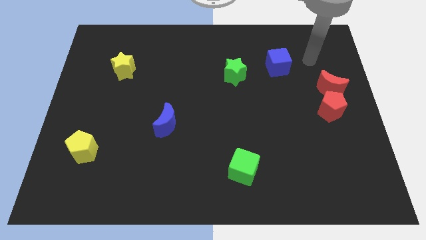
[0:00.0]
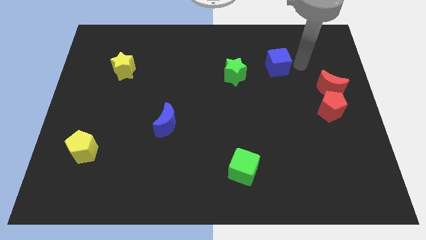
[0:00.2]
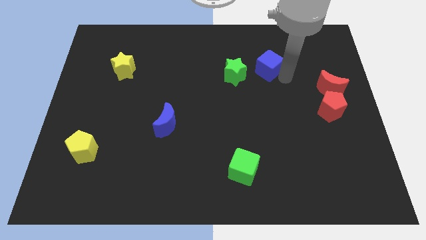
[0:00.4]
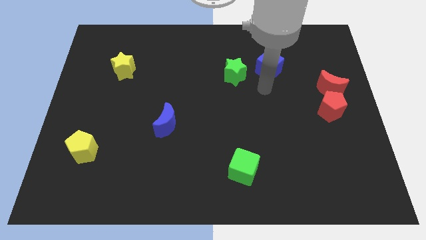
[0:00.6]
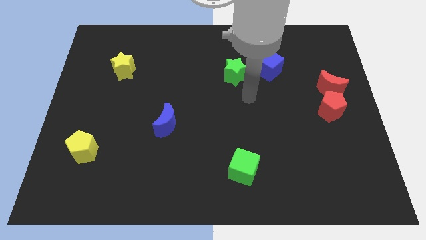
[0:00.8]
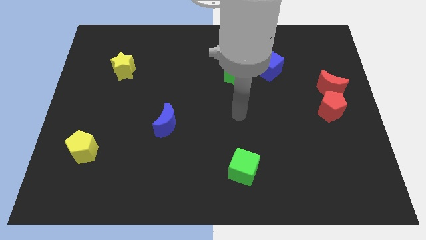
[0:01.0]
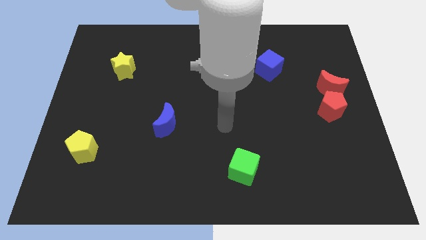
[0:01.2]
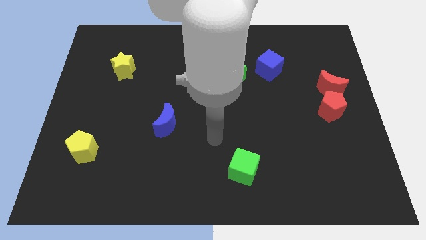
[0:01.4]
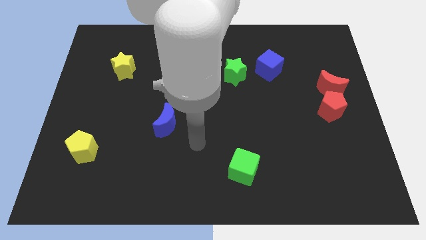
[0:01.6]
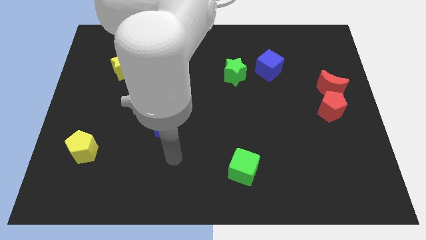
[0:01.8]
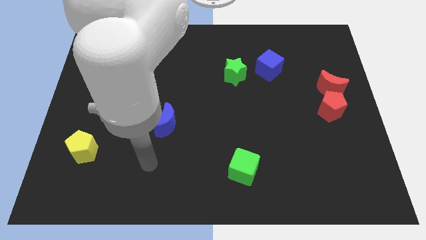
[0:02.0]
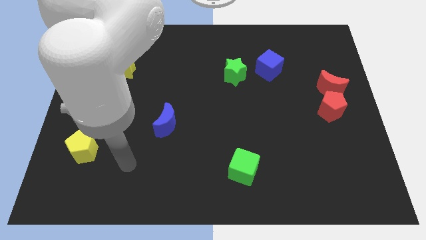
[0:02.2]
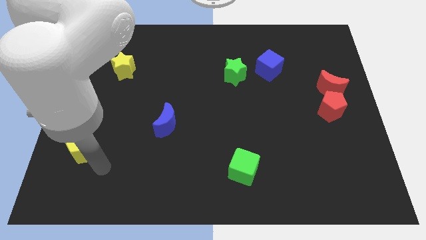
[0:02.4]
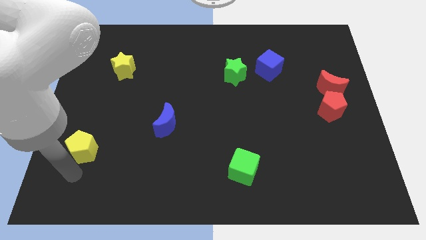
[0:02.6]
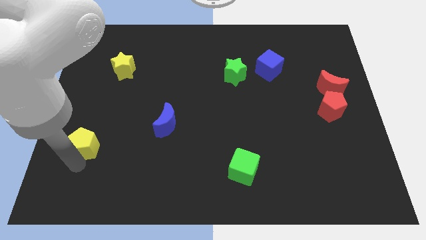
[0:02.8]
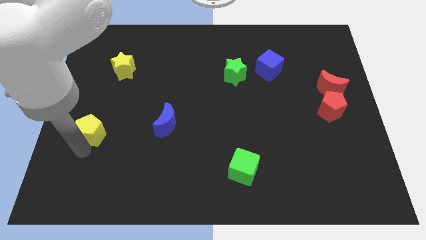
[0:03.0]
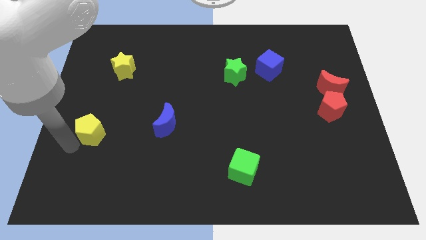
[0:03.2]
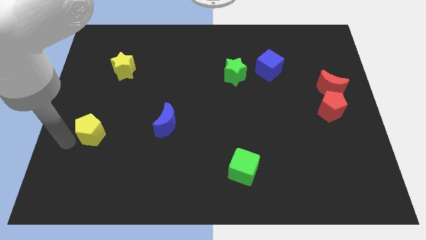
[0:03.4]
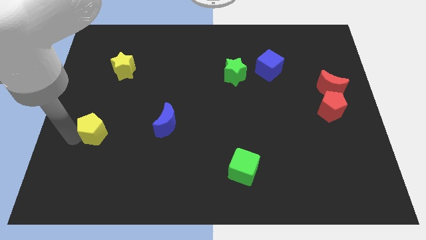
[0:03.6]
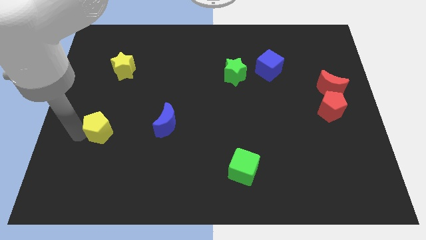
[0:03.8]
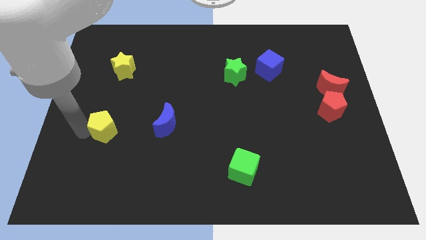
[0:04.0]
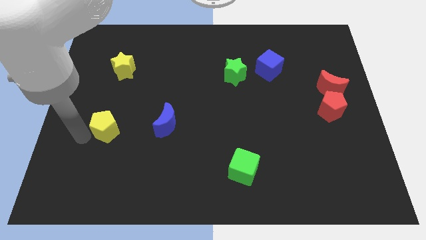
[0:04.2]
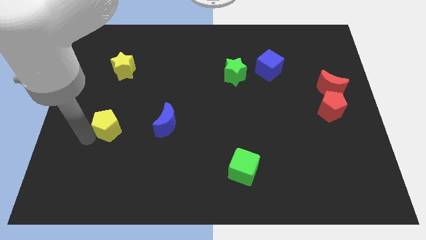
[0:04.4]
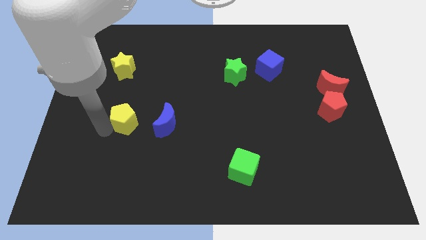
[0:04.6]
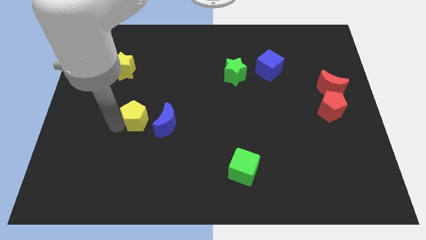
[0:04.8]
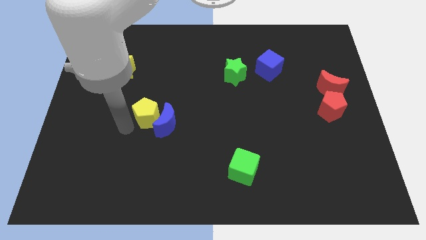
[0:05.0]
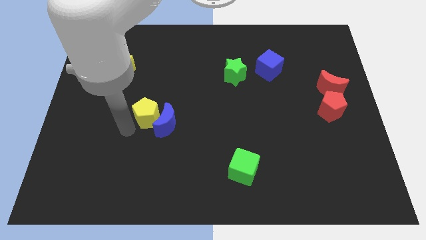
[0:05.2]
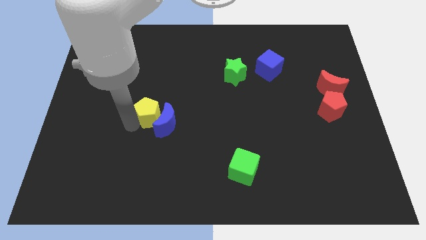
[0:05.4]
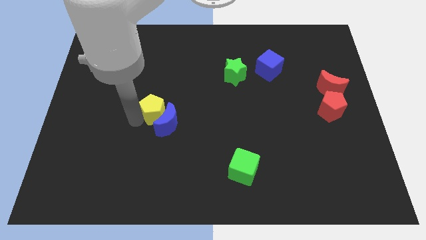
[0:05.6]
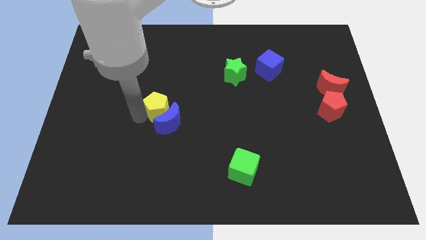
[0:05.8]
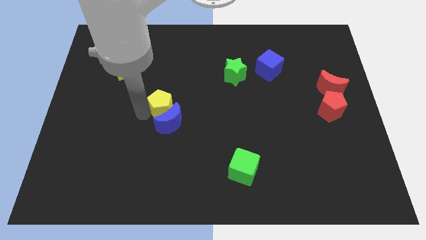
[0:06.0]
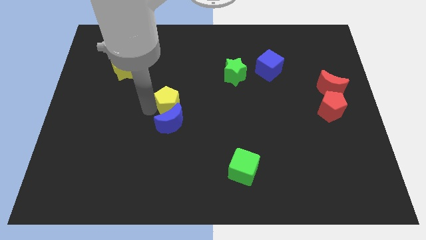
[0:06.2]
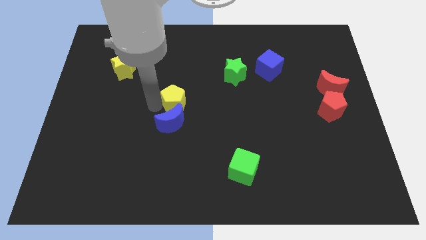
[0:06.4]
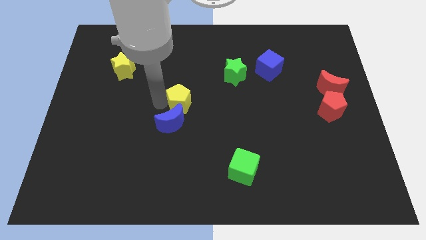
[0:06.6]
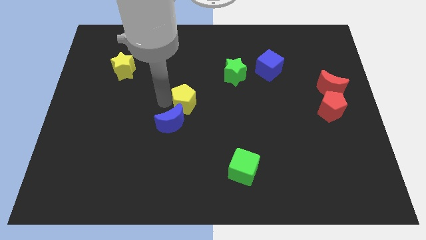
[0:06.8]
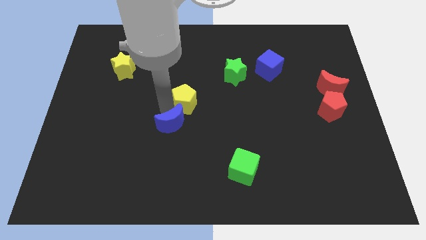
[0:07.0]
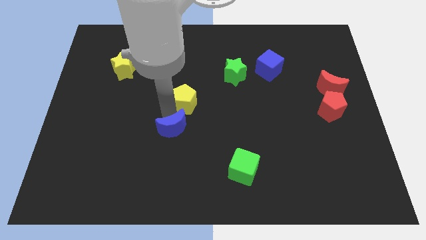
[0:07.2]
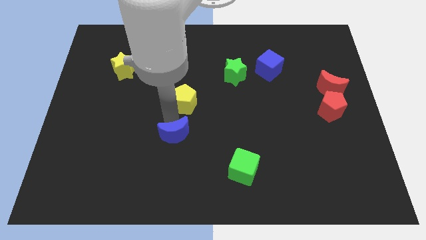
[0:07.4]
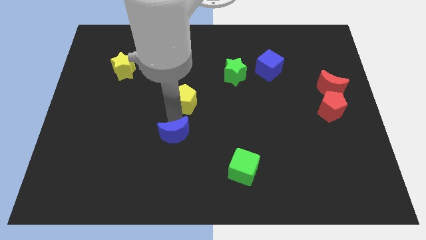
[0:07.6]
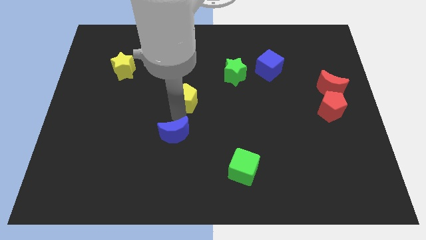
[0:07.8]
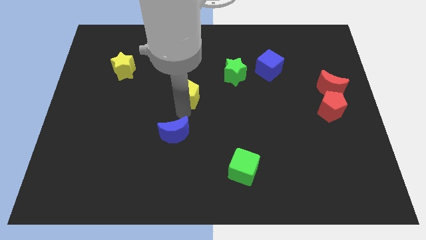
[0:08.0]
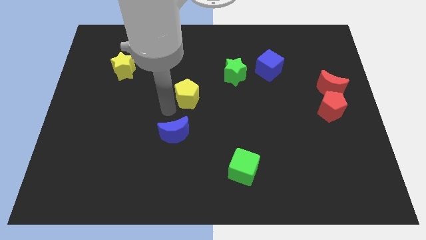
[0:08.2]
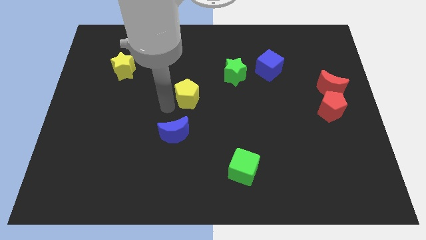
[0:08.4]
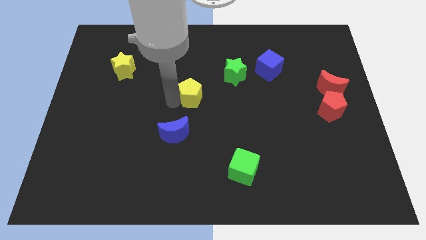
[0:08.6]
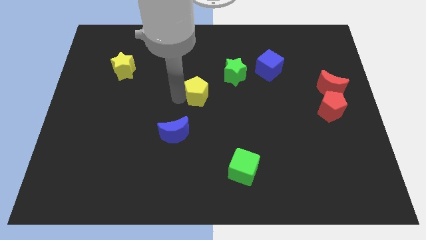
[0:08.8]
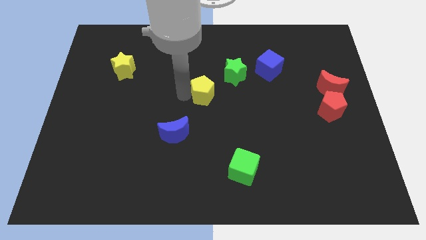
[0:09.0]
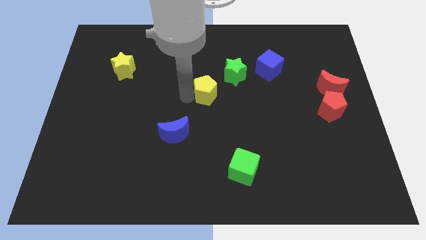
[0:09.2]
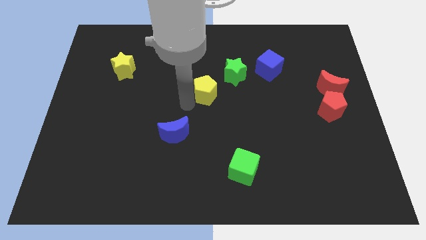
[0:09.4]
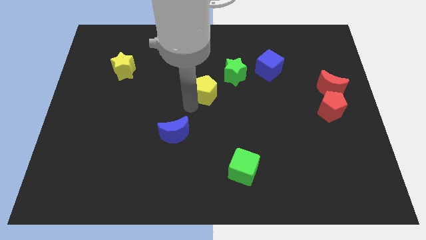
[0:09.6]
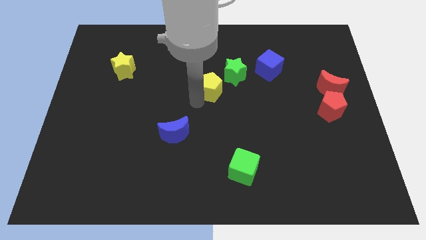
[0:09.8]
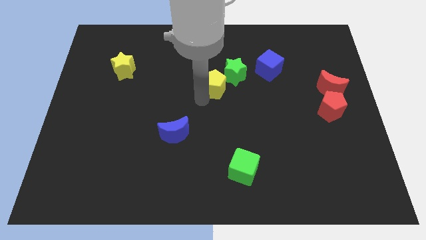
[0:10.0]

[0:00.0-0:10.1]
slide the yellow pentagon next to the green star

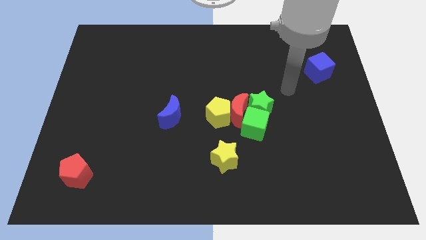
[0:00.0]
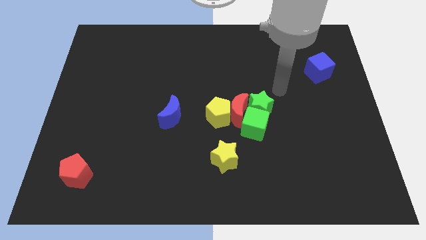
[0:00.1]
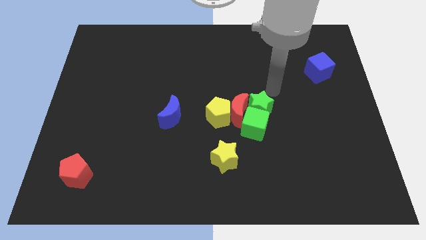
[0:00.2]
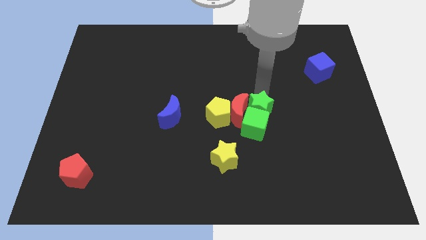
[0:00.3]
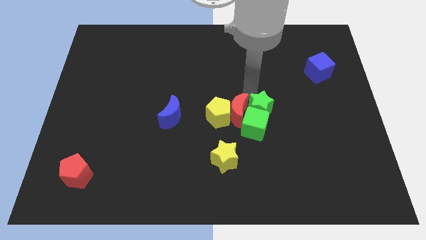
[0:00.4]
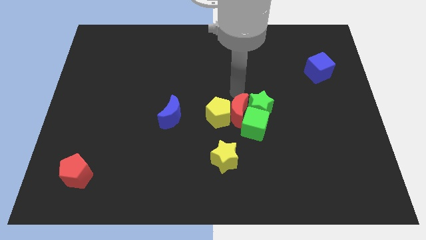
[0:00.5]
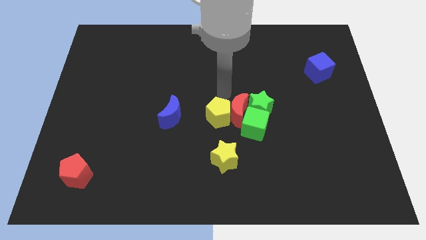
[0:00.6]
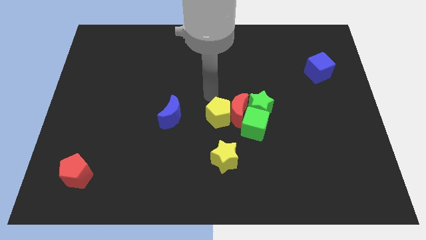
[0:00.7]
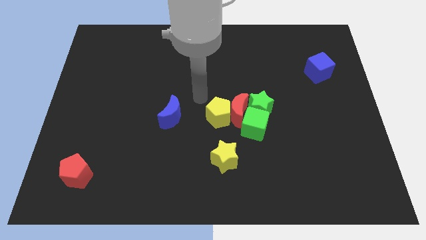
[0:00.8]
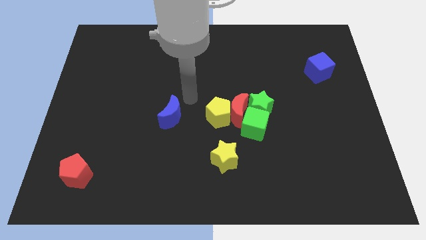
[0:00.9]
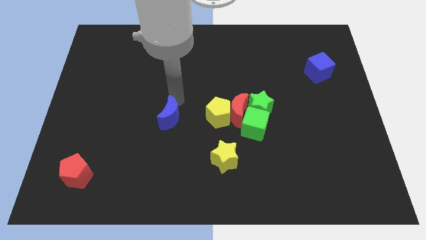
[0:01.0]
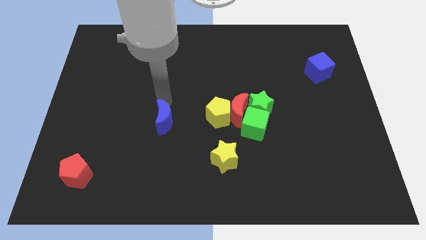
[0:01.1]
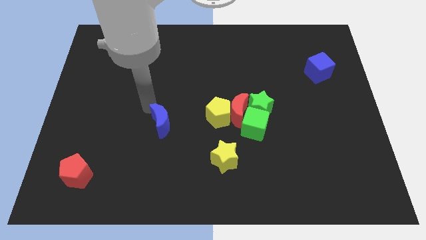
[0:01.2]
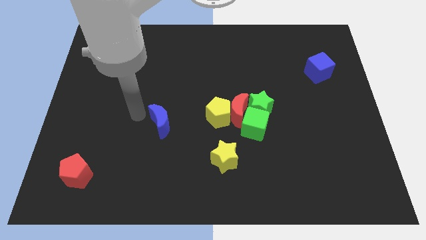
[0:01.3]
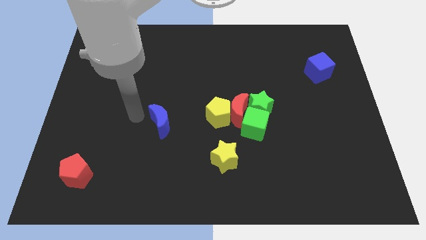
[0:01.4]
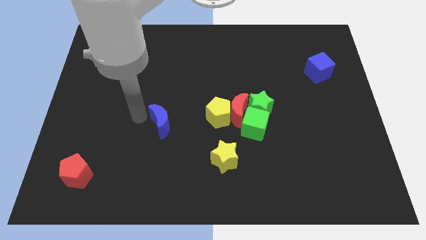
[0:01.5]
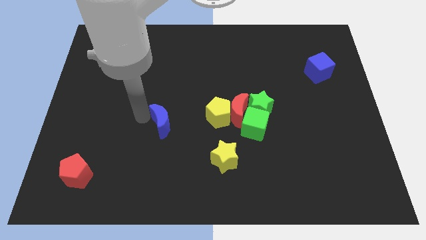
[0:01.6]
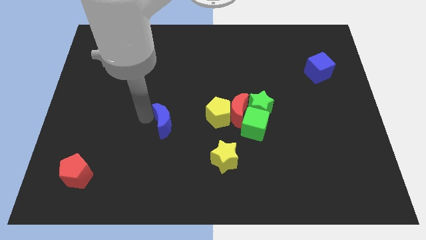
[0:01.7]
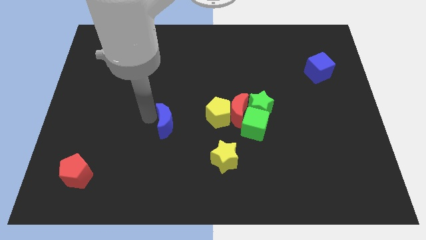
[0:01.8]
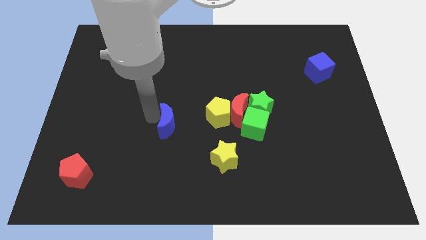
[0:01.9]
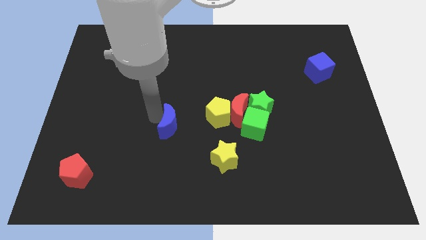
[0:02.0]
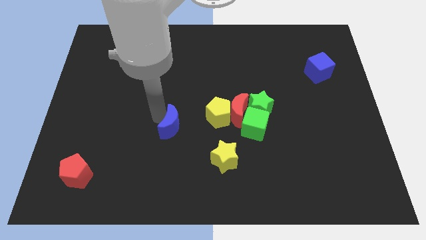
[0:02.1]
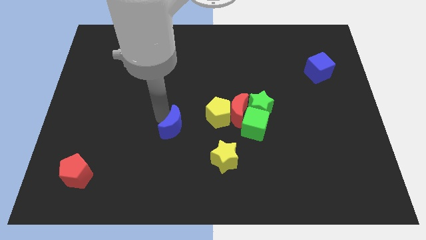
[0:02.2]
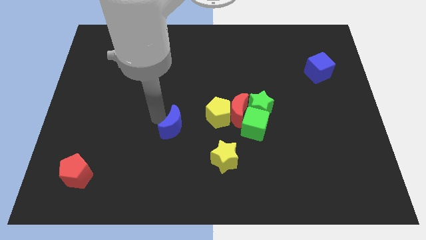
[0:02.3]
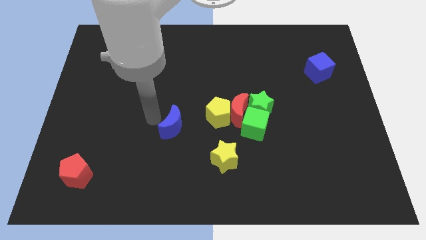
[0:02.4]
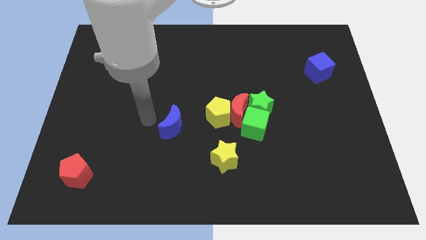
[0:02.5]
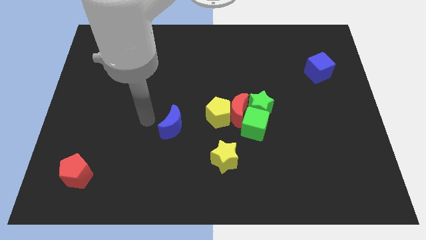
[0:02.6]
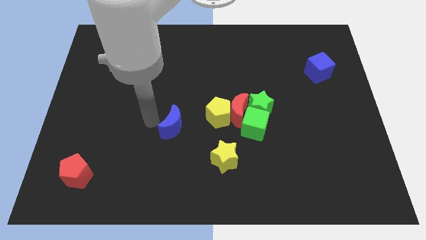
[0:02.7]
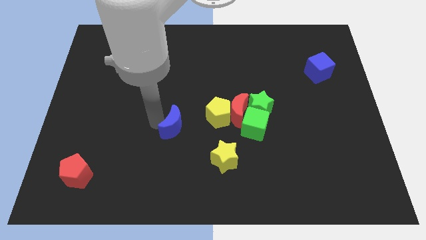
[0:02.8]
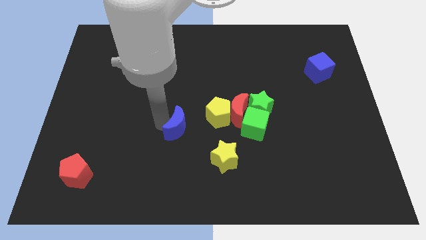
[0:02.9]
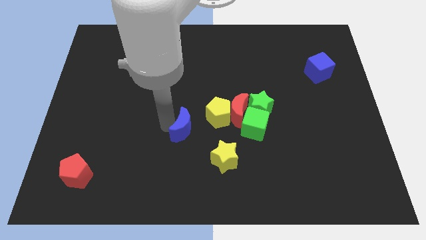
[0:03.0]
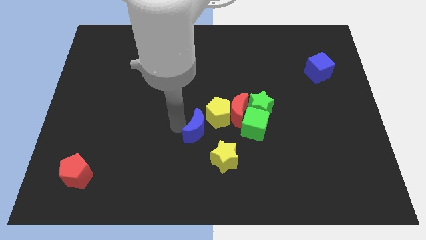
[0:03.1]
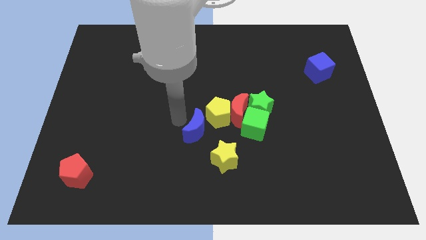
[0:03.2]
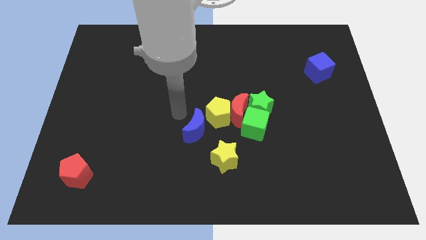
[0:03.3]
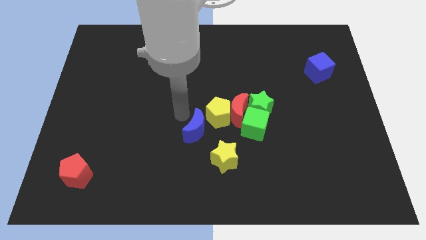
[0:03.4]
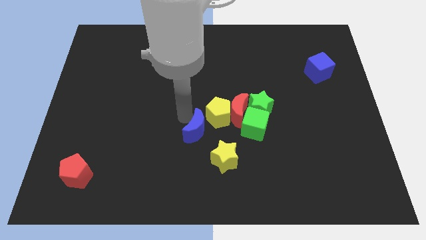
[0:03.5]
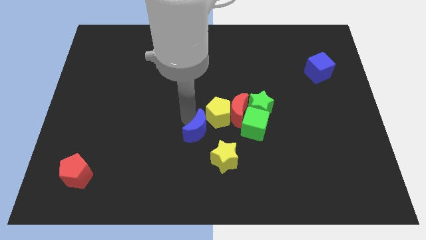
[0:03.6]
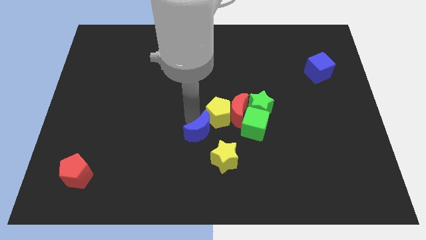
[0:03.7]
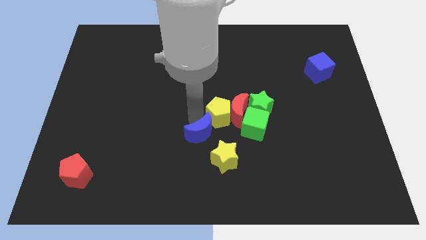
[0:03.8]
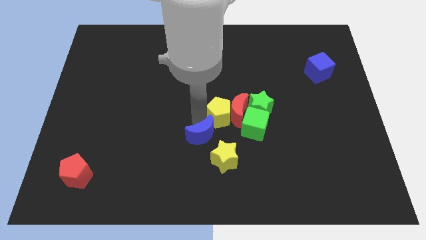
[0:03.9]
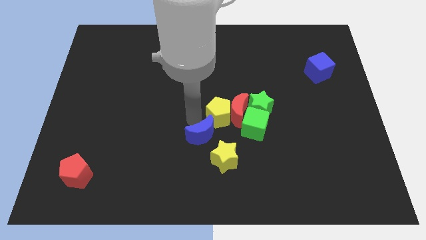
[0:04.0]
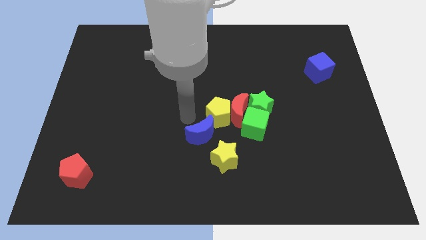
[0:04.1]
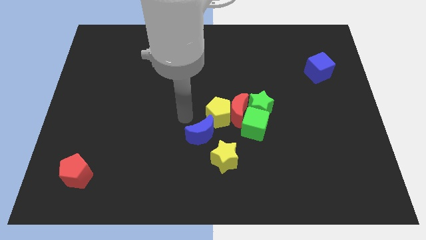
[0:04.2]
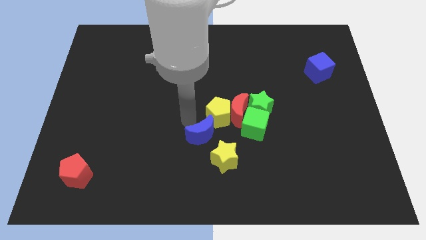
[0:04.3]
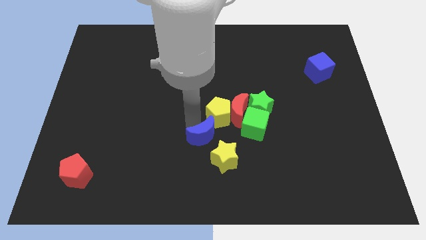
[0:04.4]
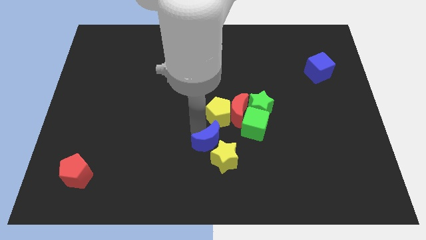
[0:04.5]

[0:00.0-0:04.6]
move the blue moon close to the yellow star
